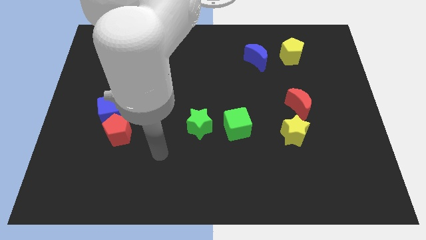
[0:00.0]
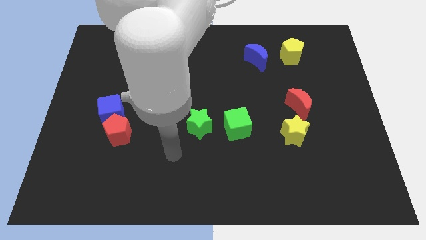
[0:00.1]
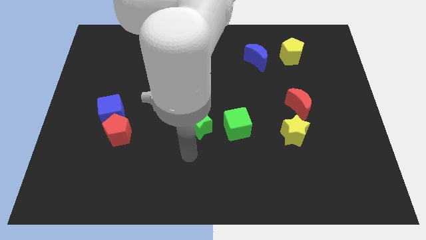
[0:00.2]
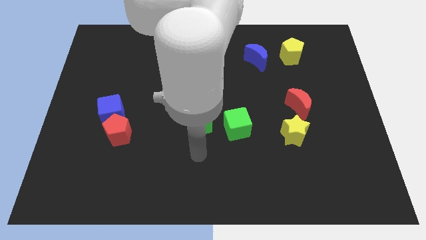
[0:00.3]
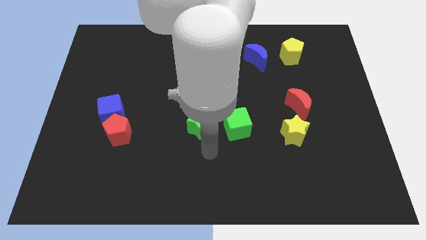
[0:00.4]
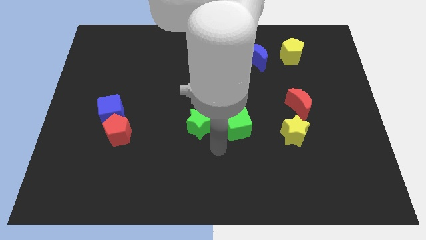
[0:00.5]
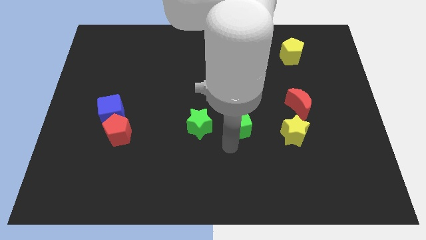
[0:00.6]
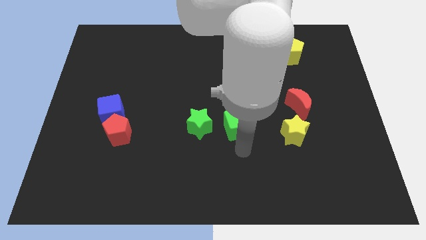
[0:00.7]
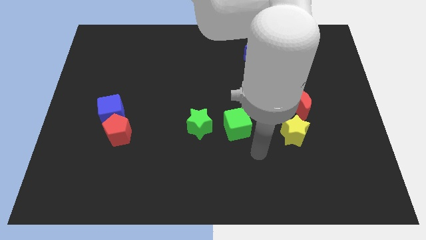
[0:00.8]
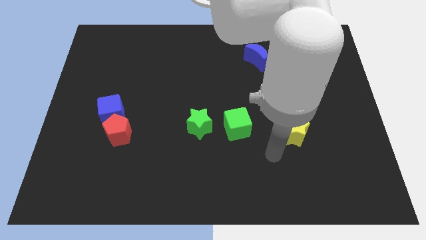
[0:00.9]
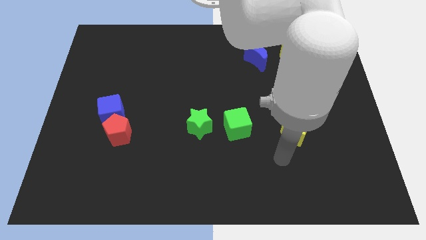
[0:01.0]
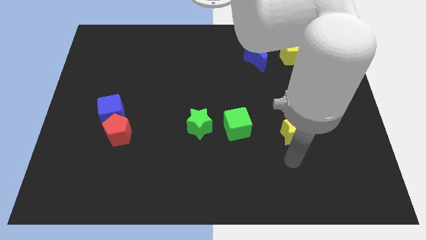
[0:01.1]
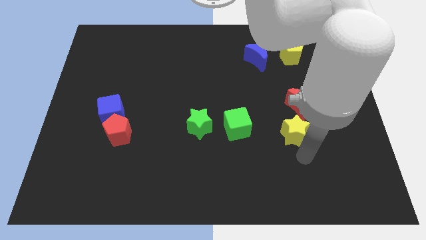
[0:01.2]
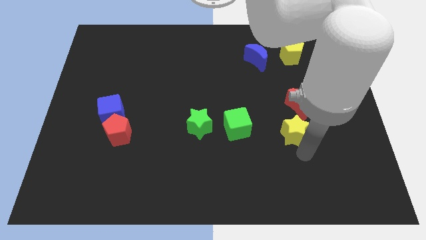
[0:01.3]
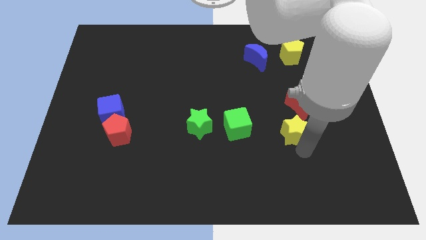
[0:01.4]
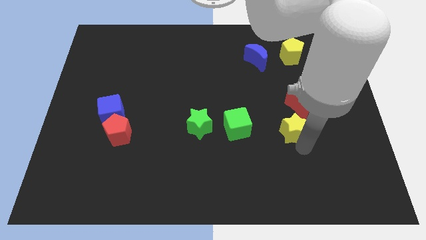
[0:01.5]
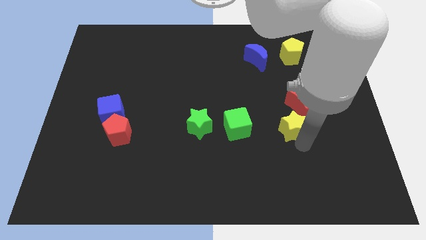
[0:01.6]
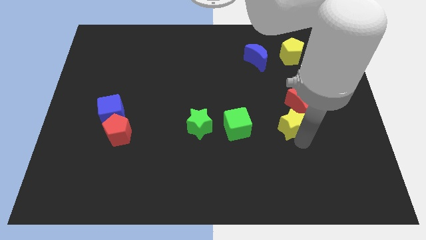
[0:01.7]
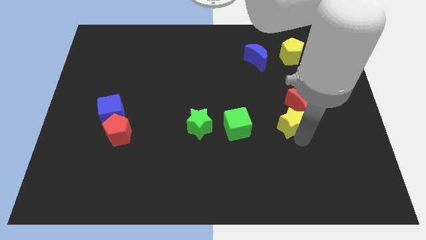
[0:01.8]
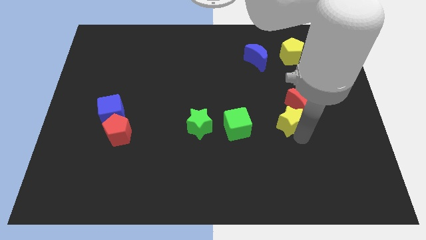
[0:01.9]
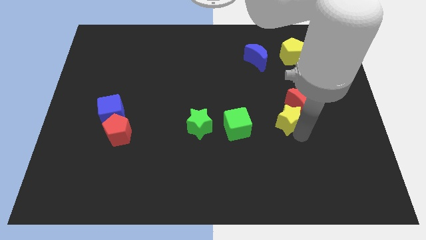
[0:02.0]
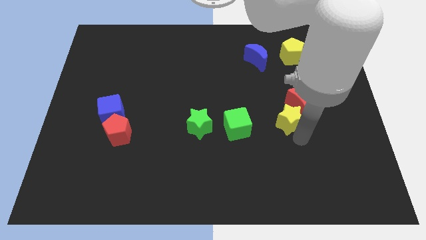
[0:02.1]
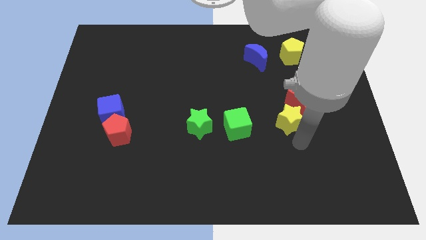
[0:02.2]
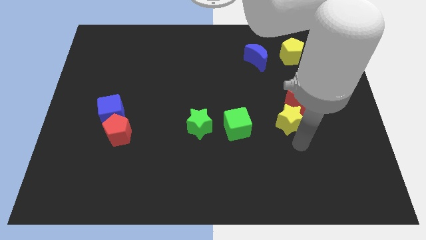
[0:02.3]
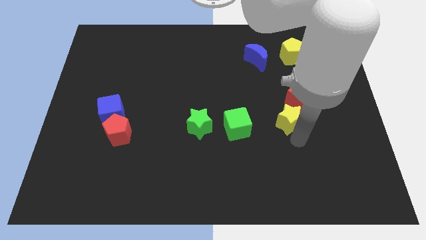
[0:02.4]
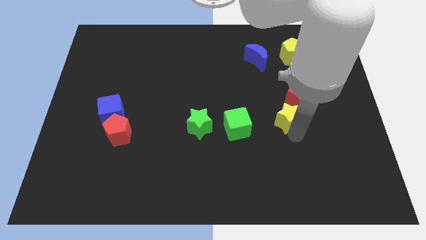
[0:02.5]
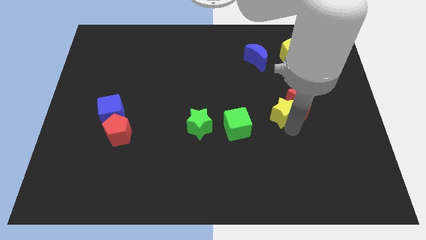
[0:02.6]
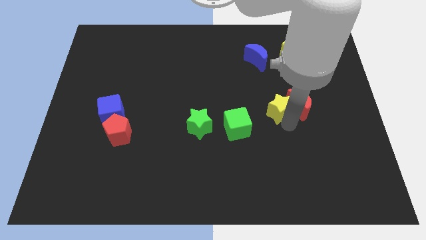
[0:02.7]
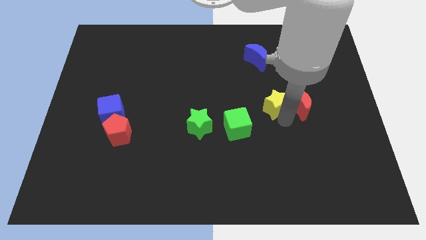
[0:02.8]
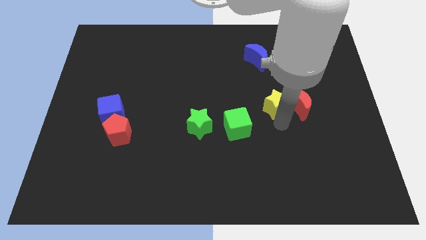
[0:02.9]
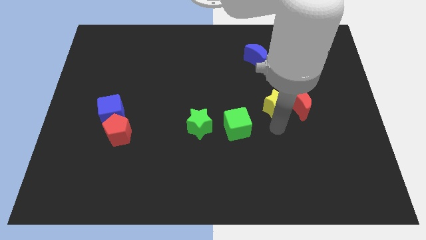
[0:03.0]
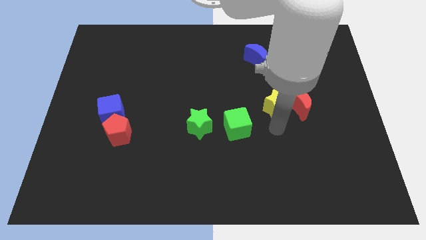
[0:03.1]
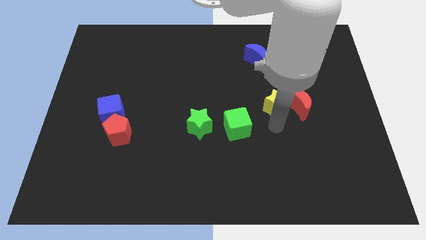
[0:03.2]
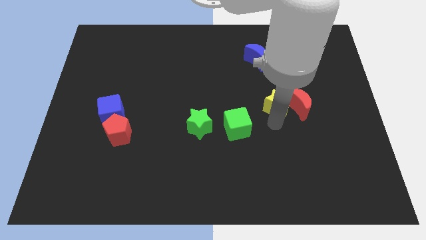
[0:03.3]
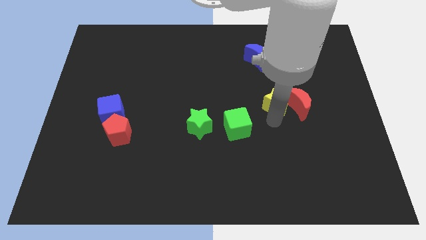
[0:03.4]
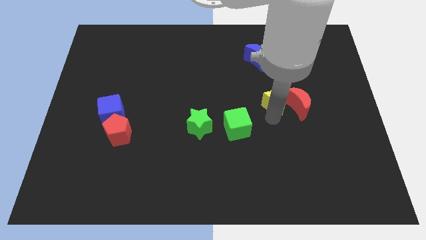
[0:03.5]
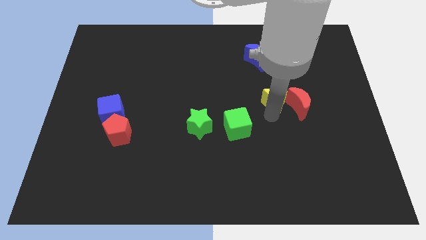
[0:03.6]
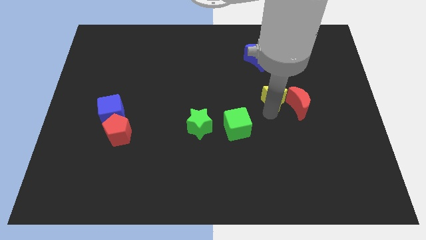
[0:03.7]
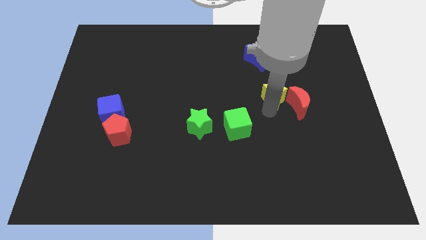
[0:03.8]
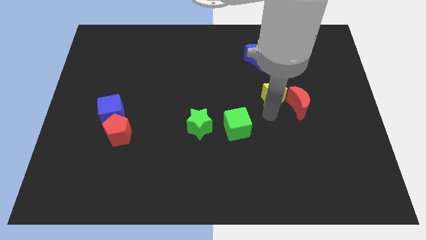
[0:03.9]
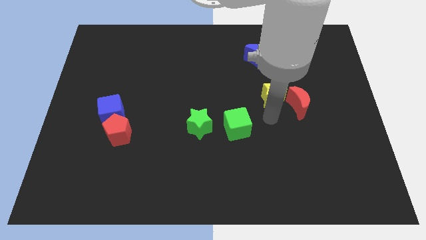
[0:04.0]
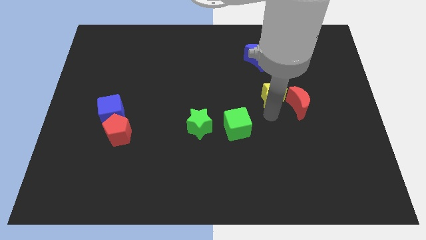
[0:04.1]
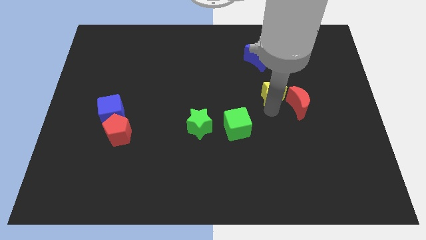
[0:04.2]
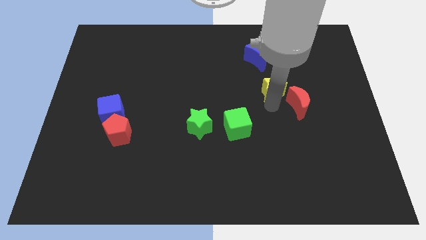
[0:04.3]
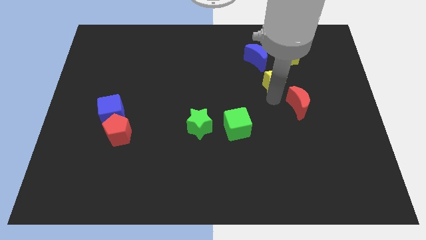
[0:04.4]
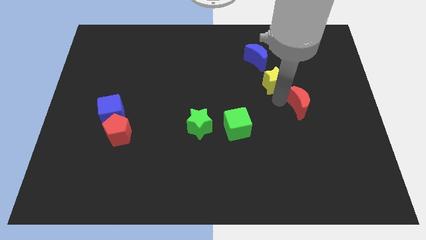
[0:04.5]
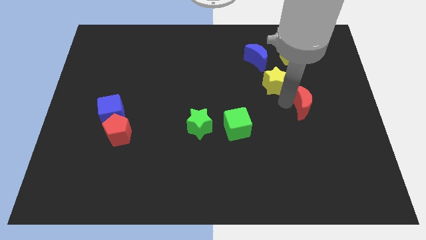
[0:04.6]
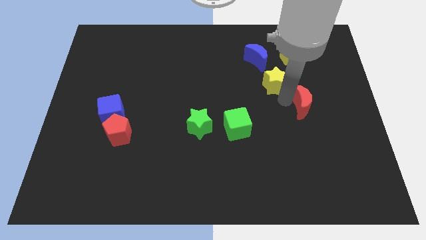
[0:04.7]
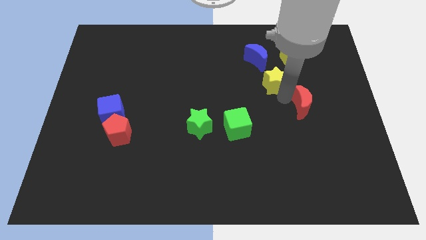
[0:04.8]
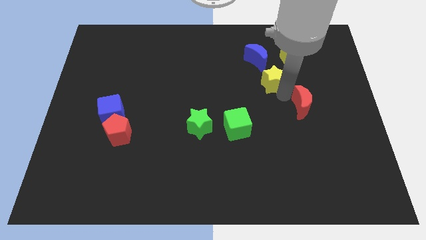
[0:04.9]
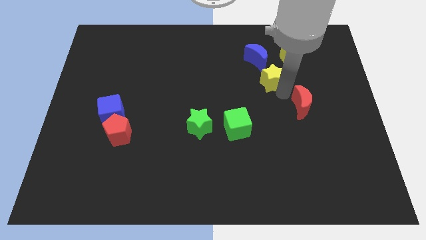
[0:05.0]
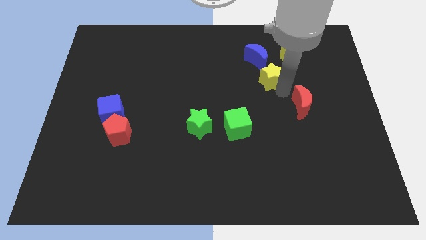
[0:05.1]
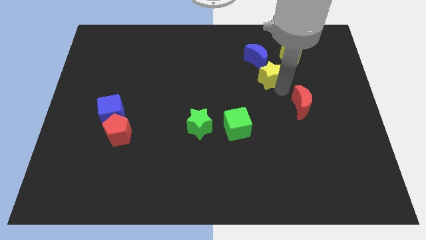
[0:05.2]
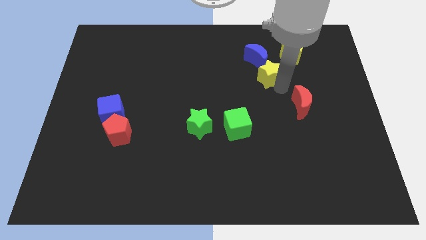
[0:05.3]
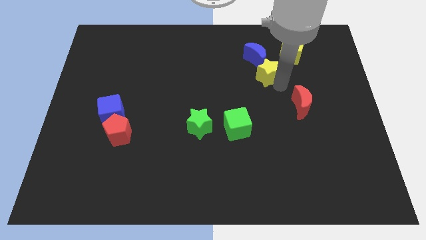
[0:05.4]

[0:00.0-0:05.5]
push the yellow star close to the blue moon

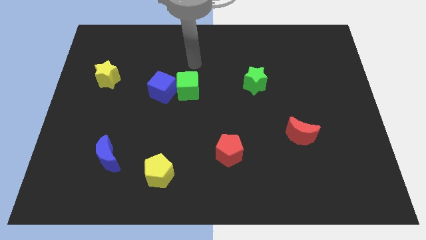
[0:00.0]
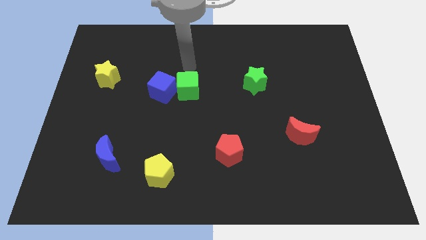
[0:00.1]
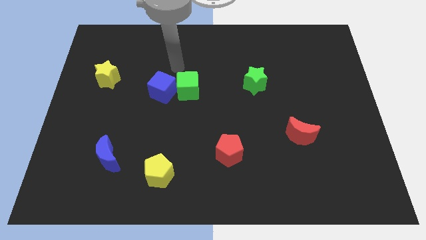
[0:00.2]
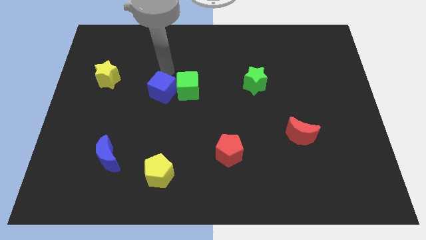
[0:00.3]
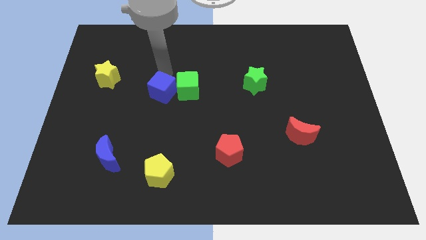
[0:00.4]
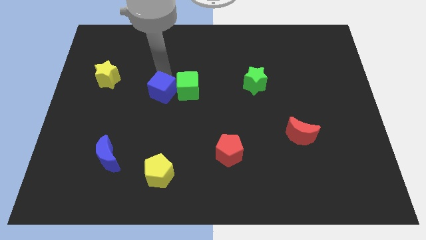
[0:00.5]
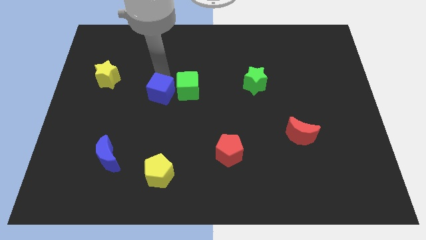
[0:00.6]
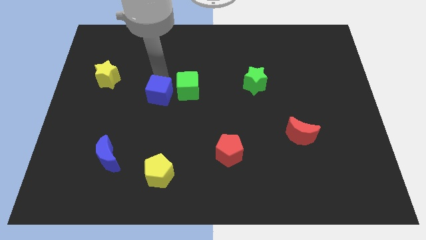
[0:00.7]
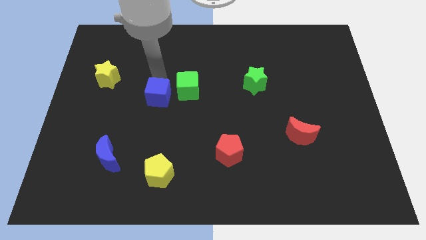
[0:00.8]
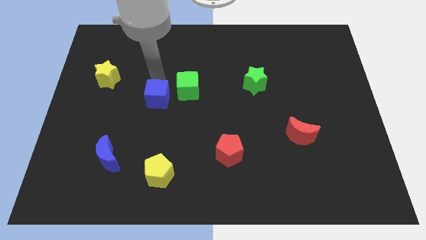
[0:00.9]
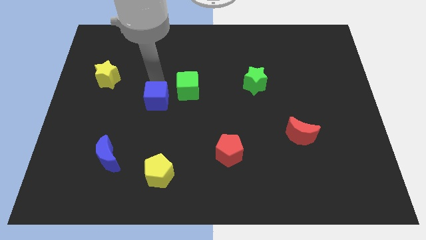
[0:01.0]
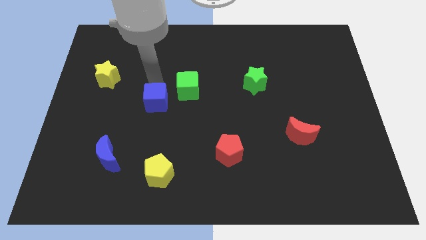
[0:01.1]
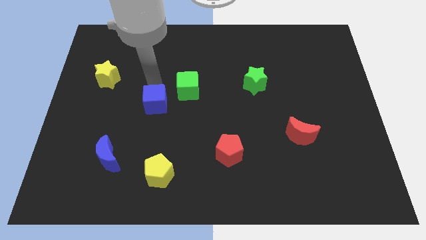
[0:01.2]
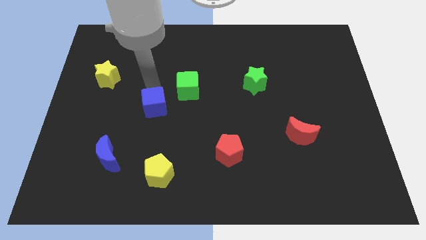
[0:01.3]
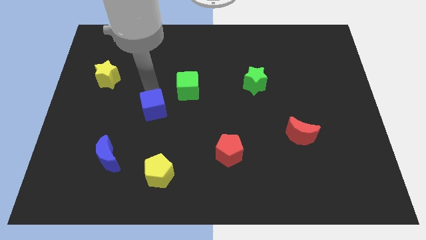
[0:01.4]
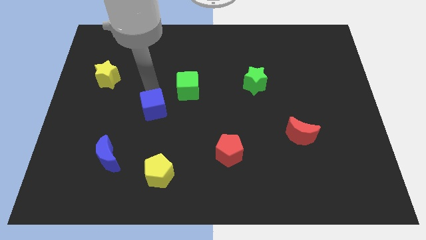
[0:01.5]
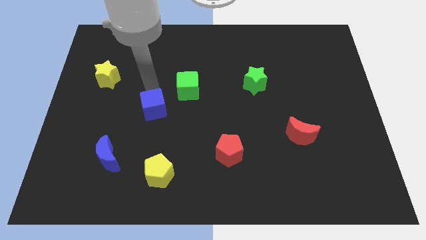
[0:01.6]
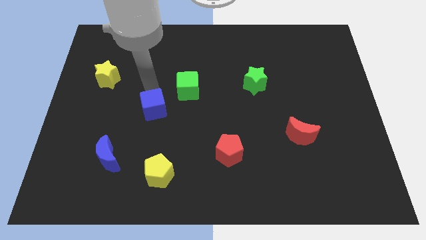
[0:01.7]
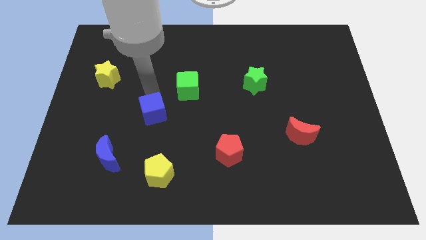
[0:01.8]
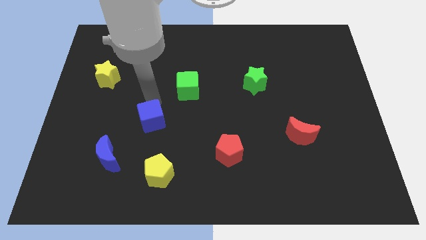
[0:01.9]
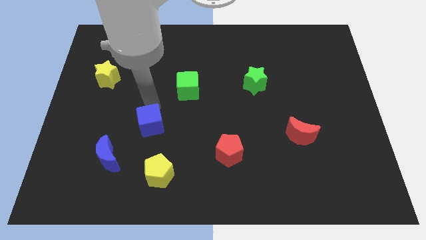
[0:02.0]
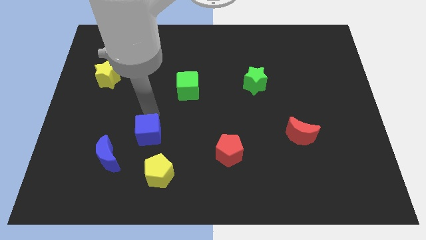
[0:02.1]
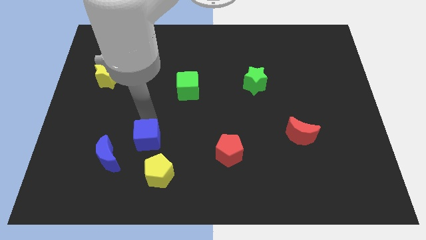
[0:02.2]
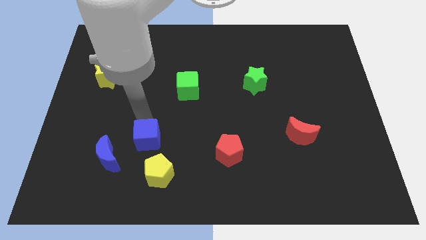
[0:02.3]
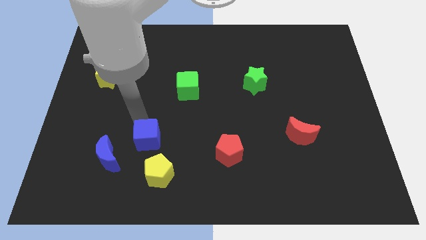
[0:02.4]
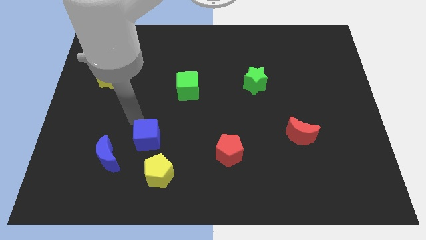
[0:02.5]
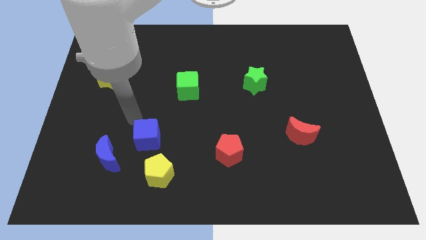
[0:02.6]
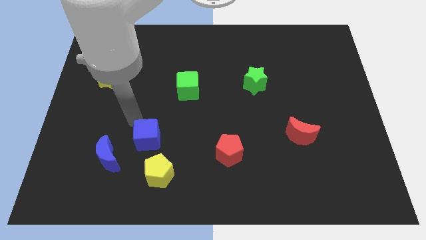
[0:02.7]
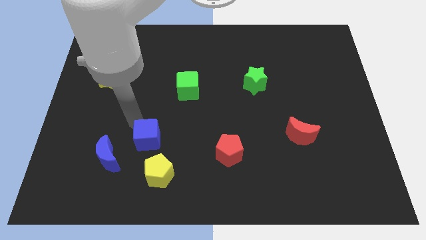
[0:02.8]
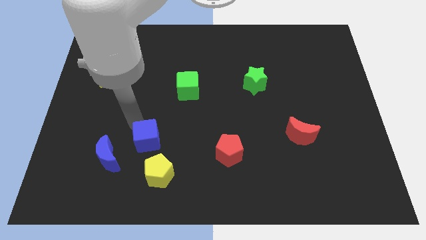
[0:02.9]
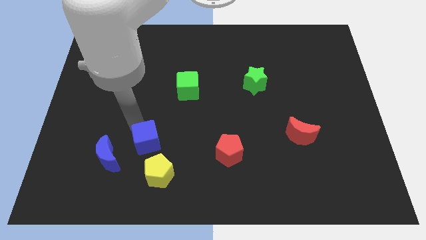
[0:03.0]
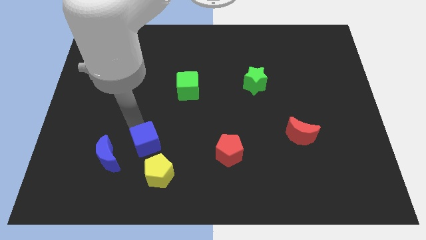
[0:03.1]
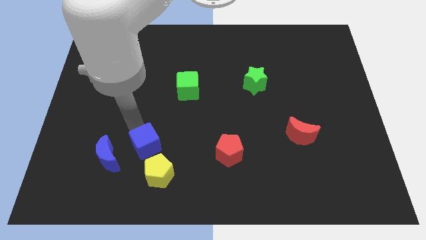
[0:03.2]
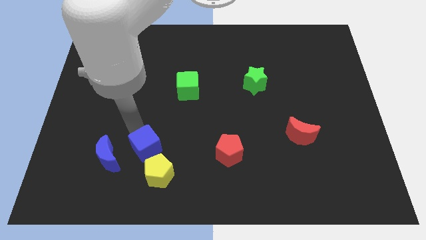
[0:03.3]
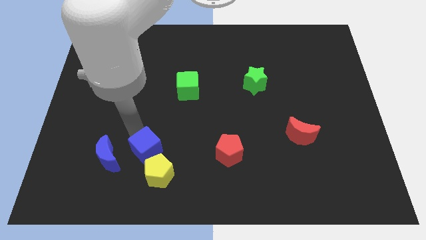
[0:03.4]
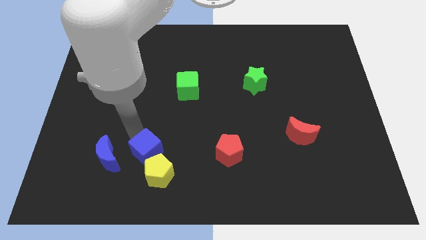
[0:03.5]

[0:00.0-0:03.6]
slide the blue cube next to the yellow pentagon
